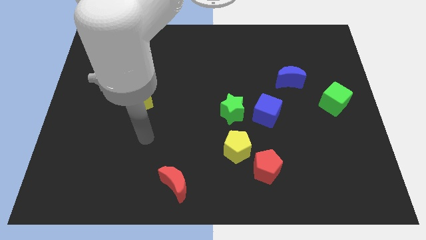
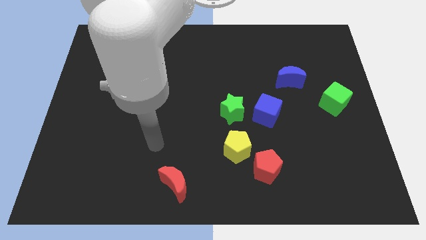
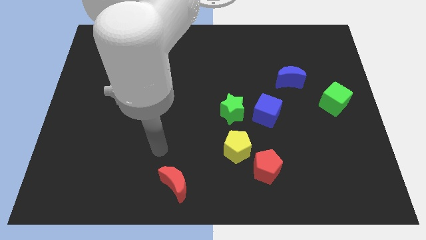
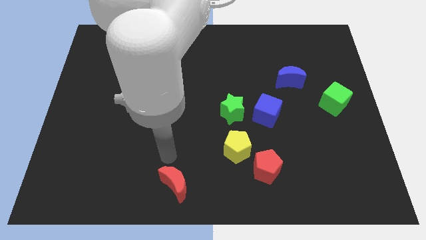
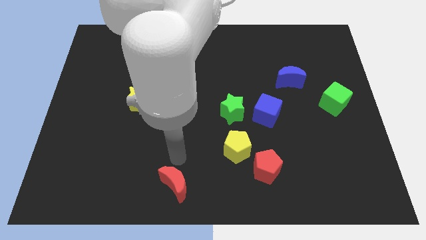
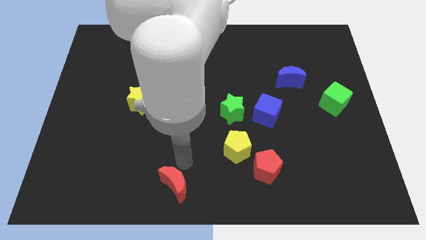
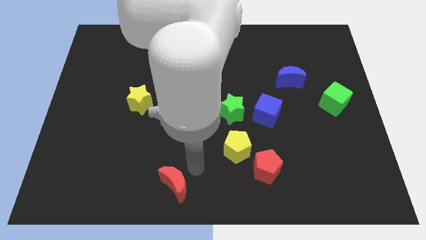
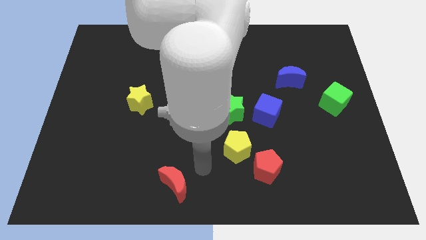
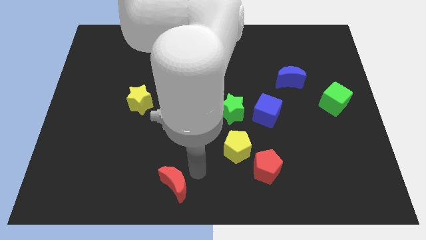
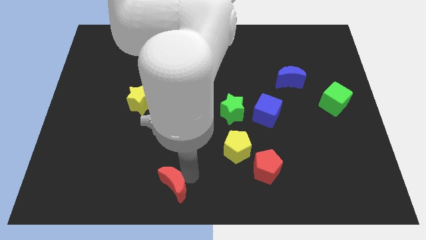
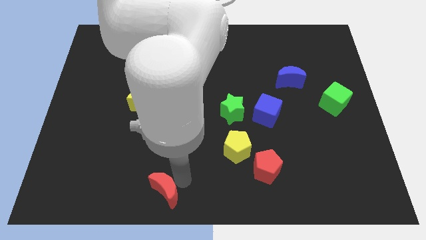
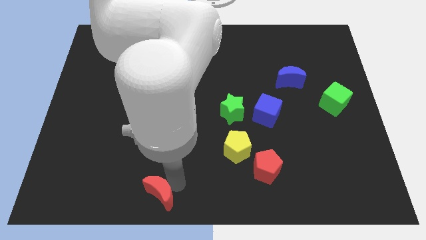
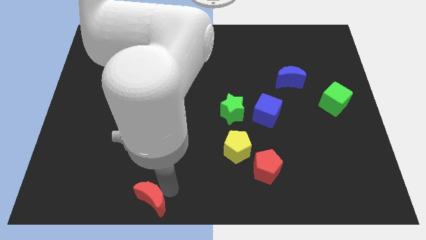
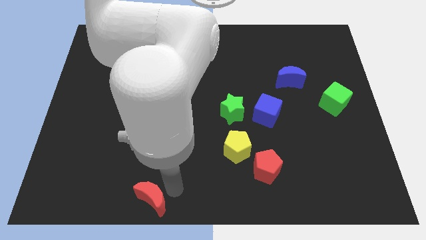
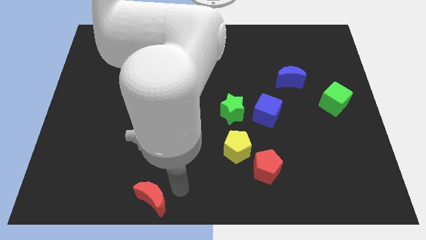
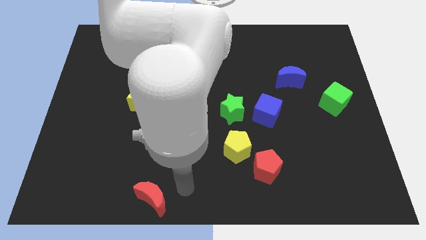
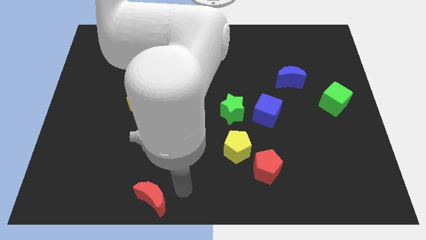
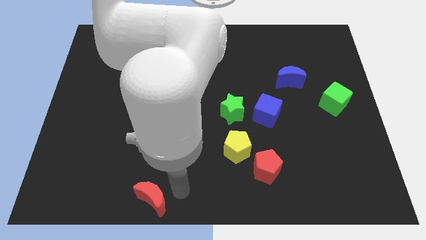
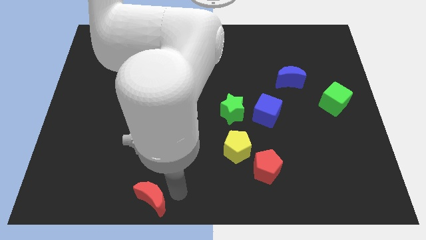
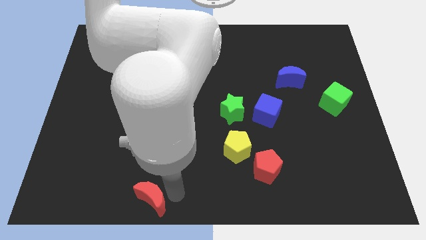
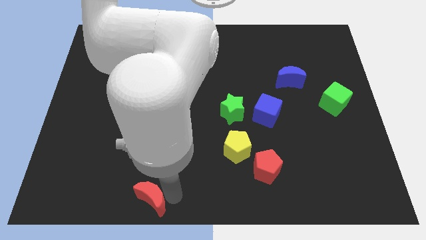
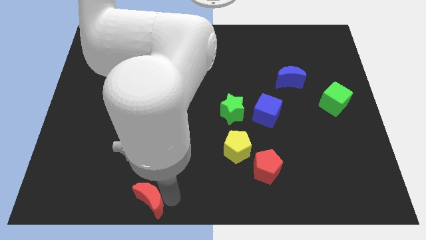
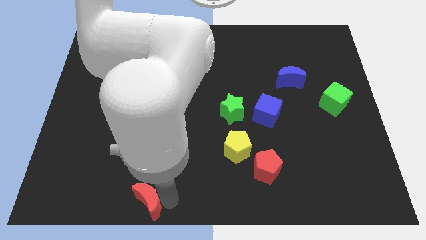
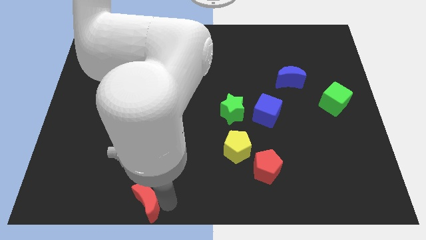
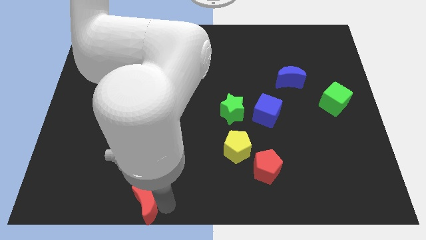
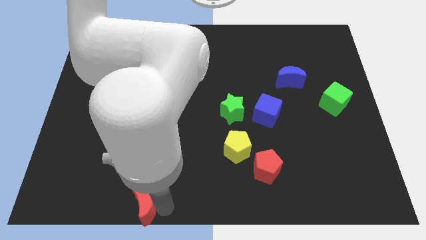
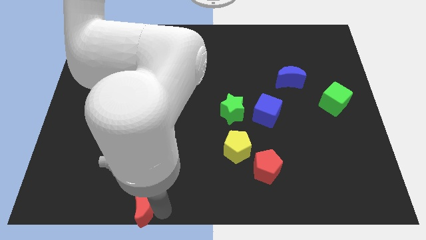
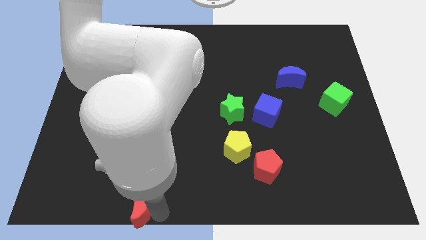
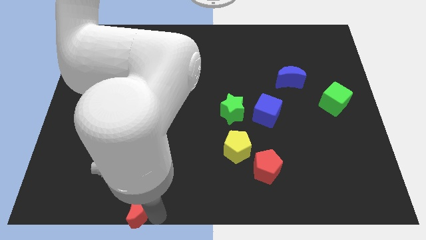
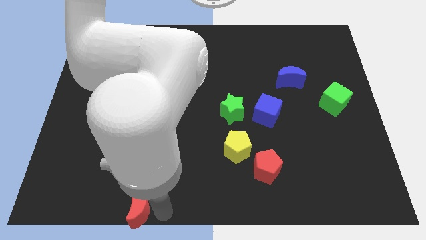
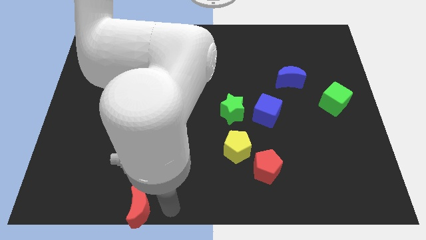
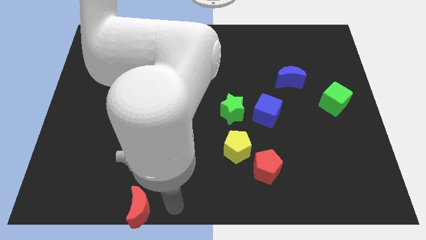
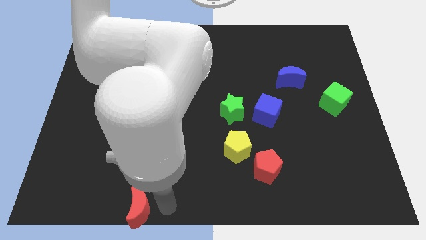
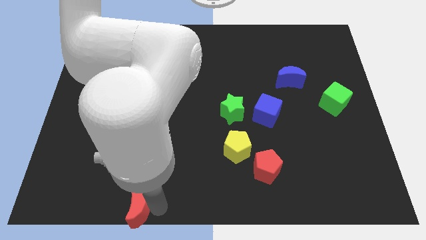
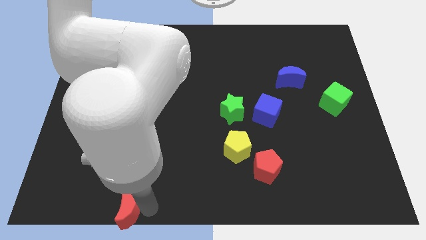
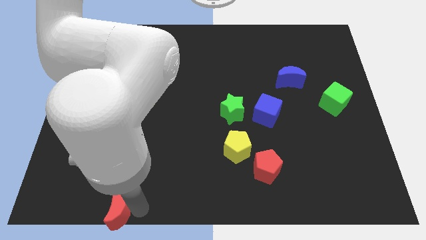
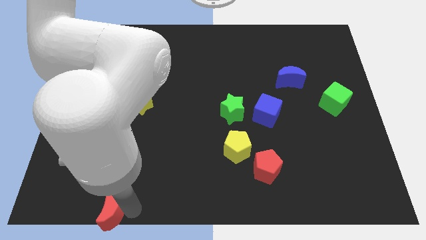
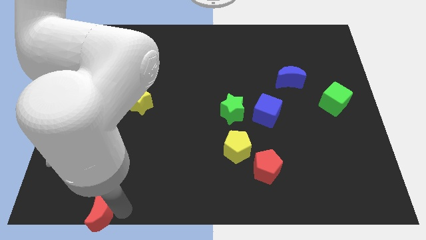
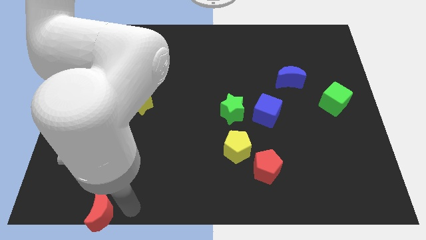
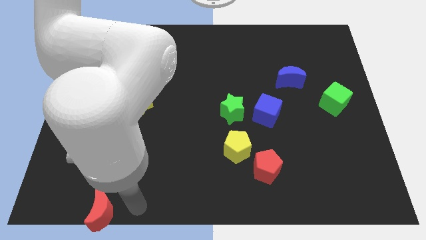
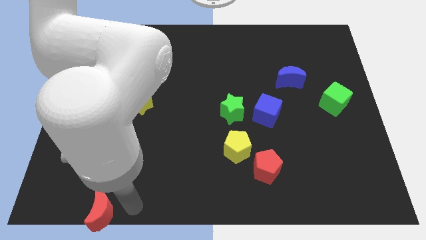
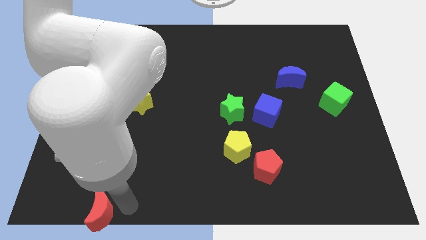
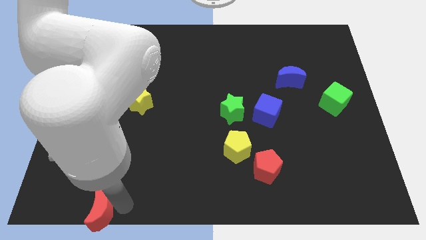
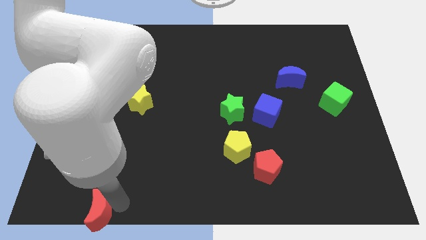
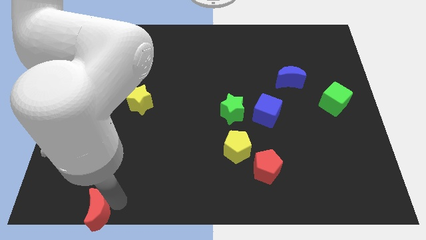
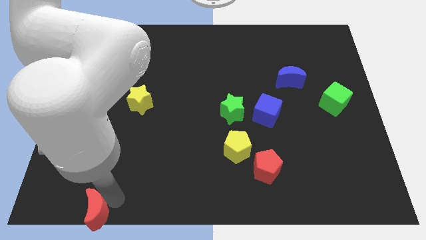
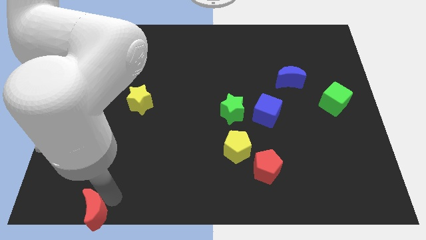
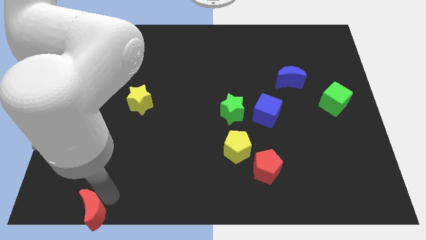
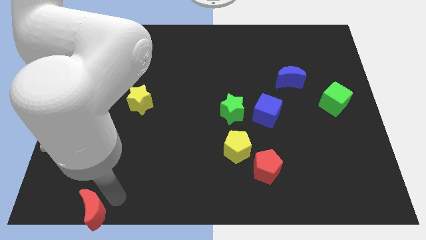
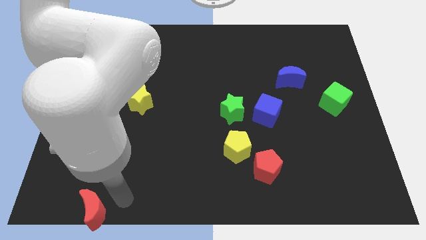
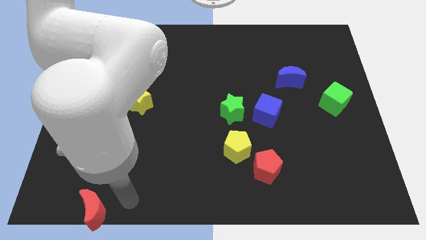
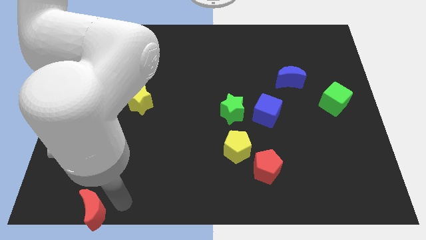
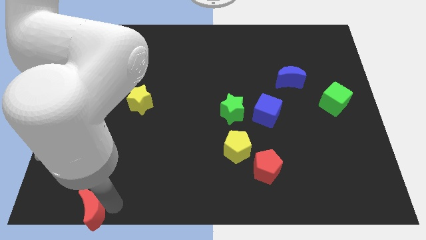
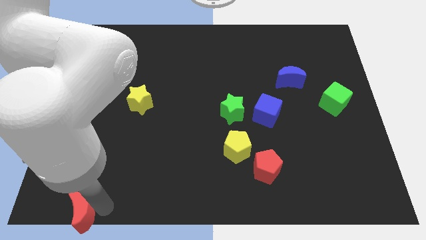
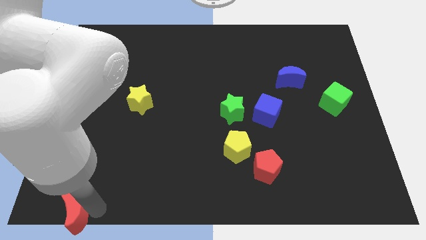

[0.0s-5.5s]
put the red moon to the lower left corner

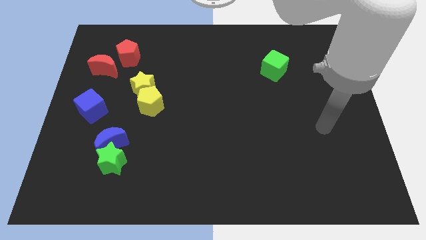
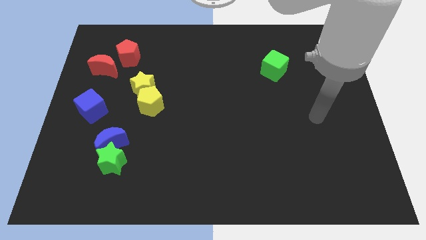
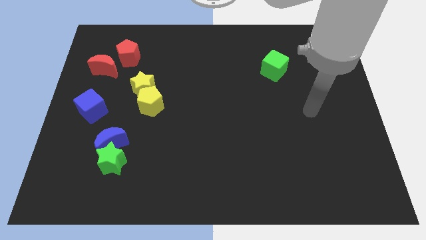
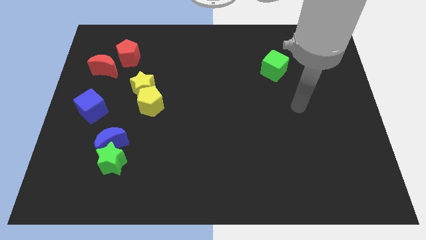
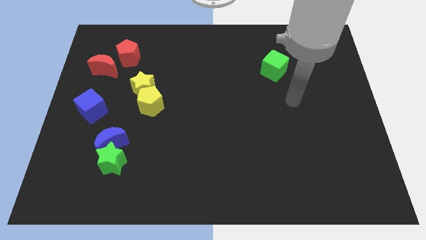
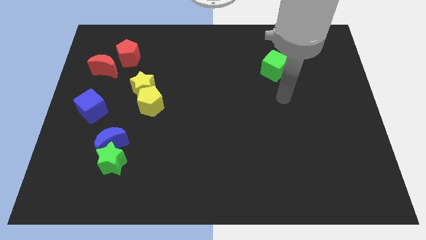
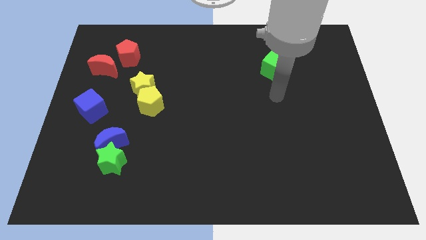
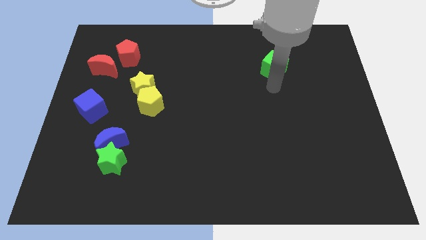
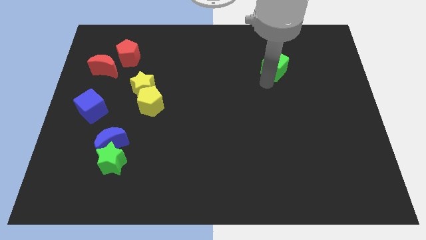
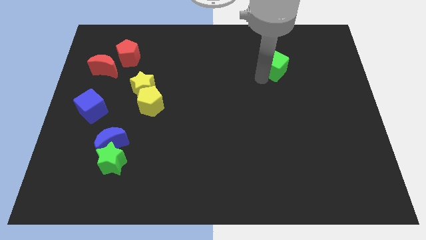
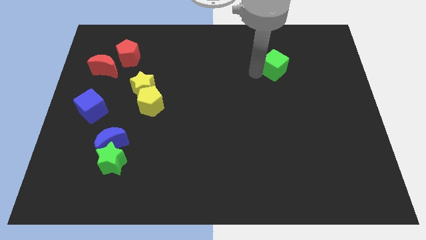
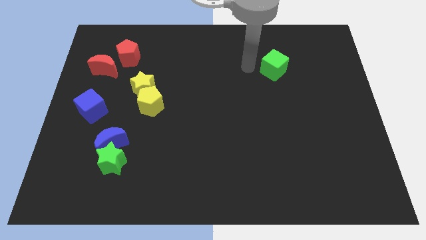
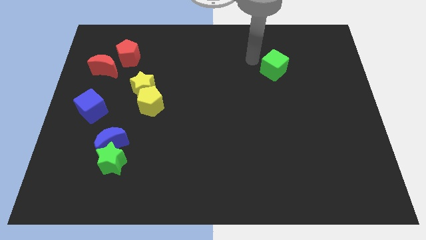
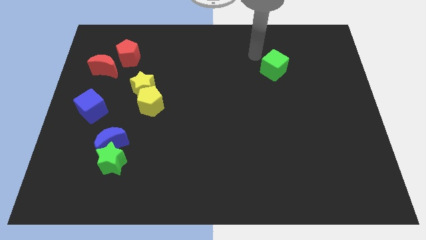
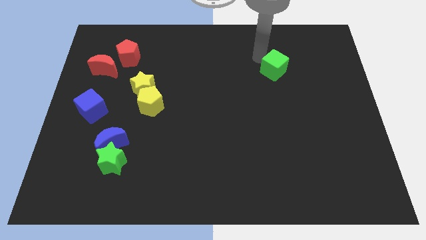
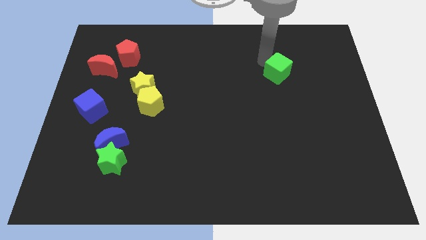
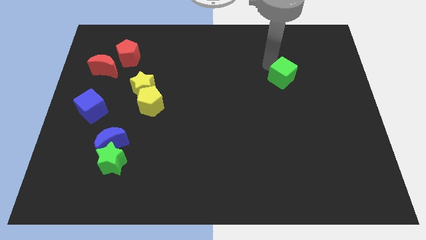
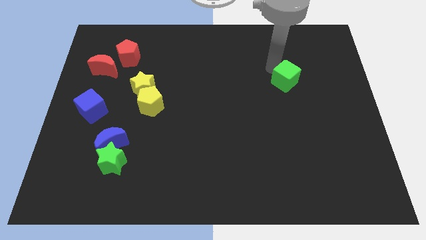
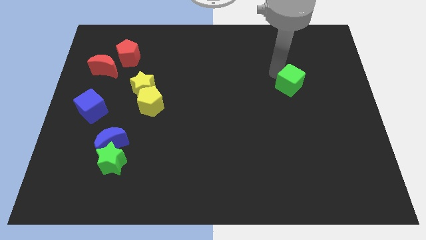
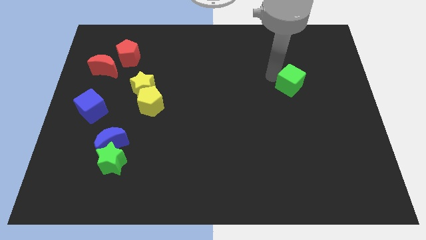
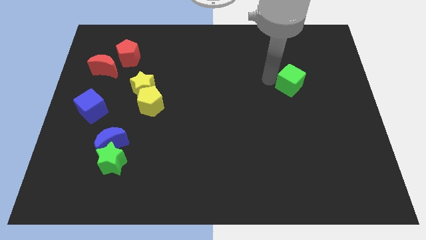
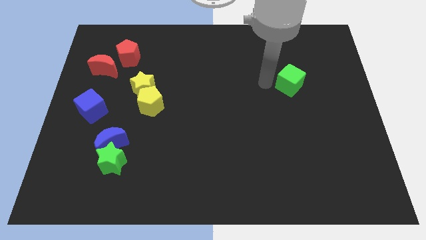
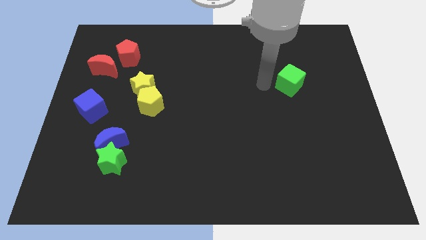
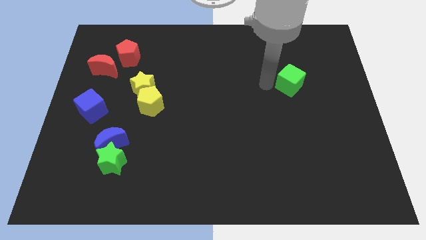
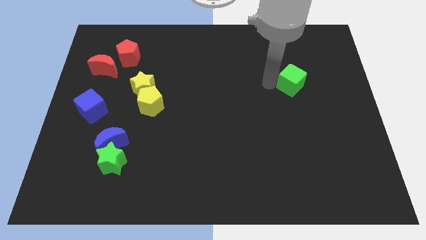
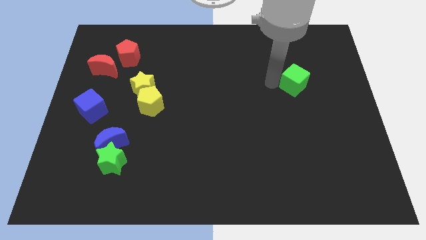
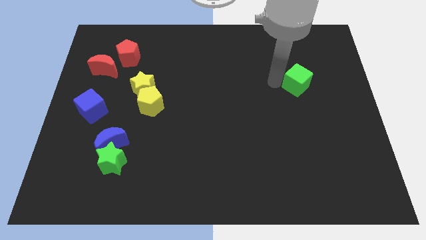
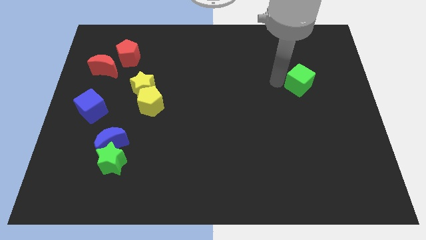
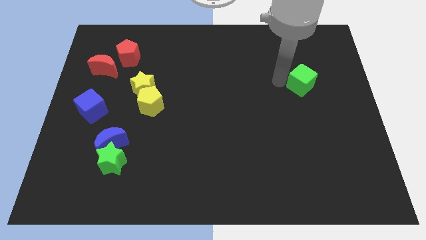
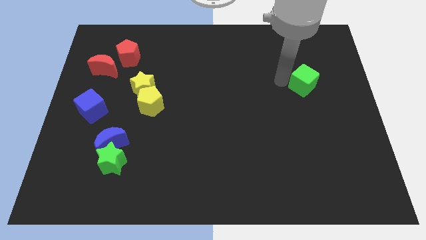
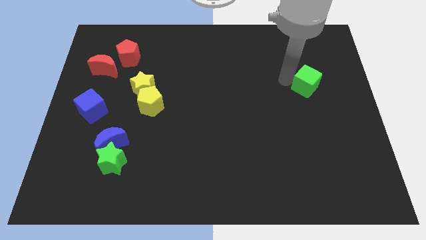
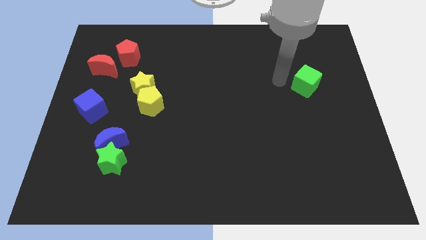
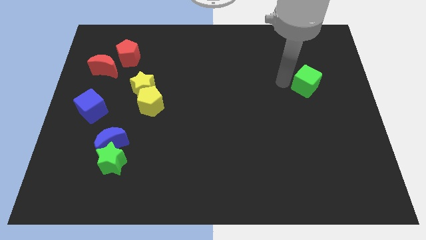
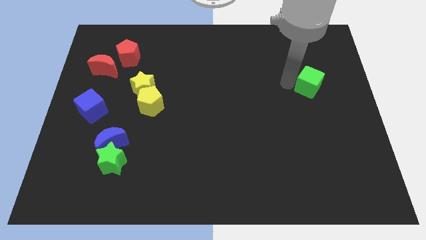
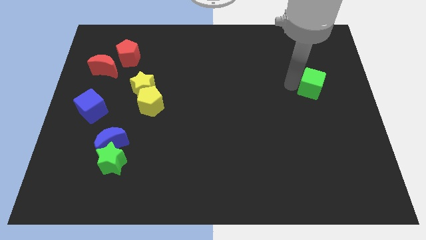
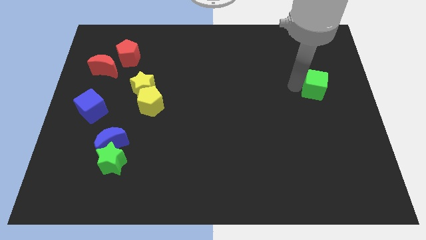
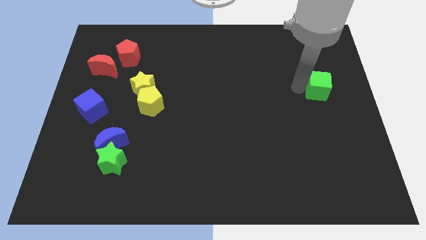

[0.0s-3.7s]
push the green cube to the center right
